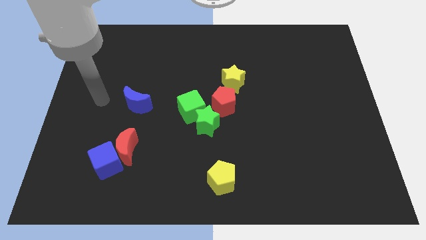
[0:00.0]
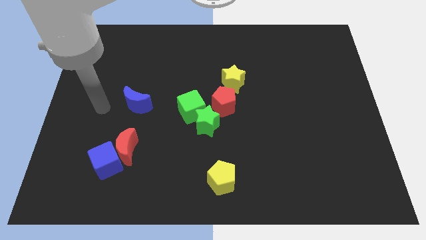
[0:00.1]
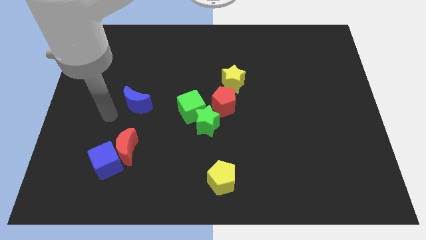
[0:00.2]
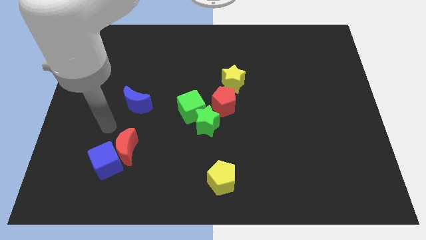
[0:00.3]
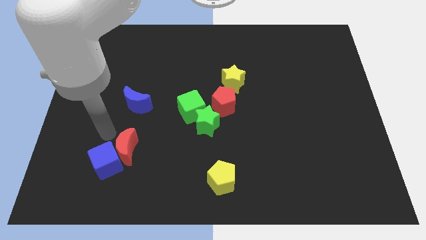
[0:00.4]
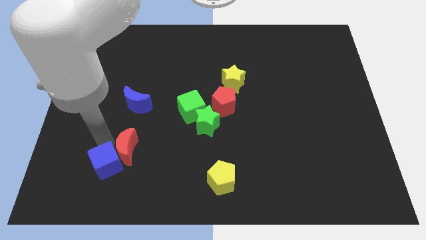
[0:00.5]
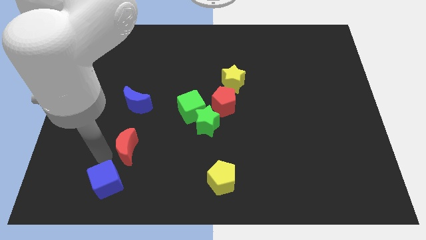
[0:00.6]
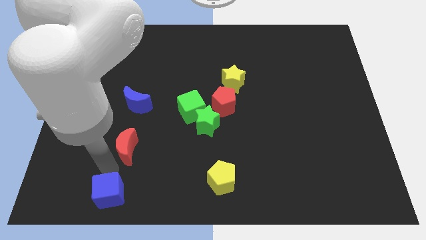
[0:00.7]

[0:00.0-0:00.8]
move the red moon away from the blue cube

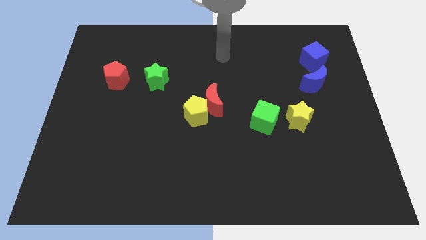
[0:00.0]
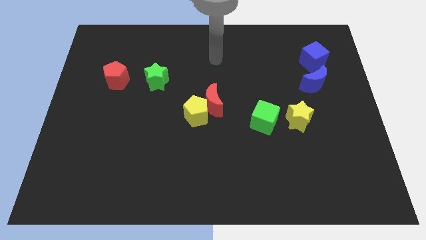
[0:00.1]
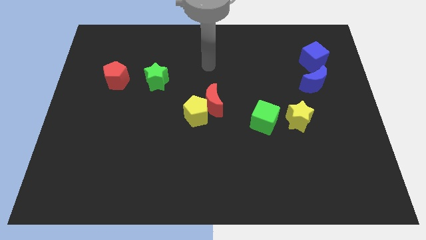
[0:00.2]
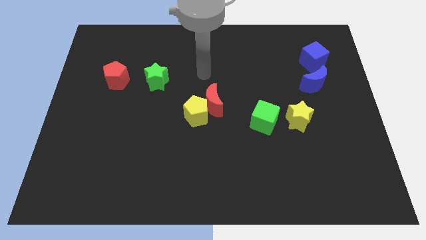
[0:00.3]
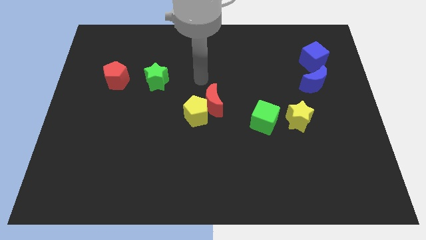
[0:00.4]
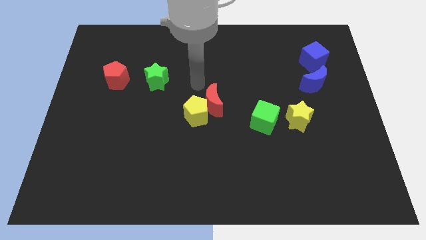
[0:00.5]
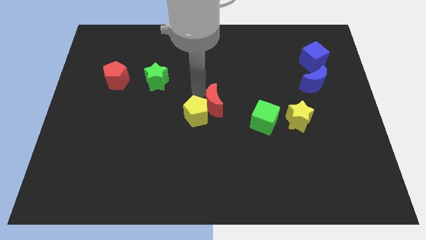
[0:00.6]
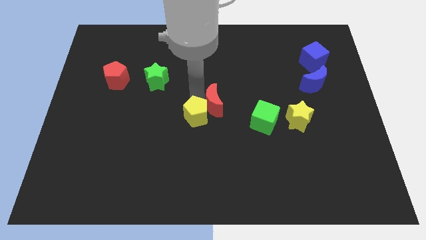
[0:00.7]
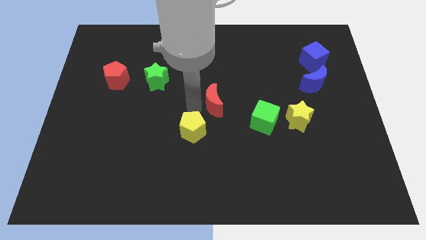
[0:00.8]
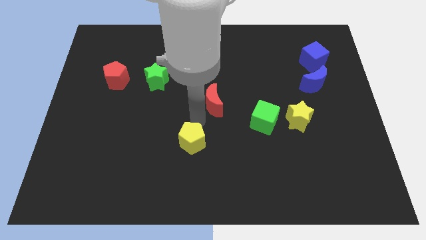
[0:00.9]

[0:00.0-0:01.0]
move the red moon away from the yellow pentagon

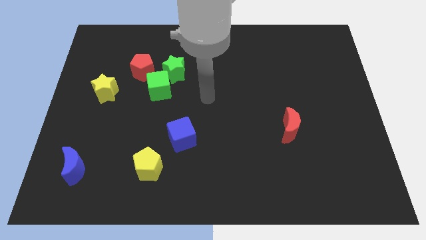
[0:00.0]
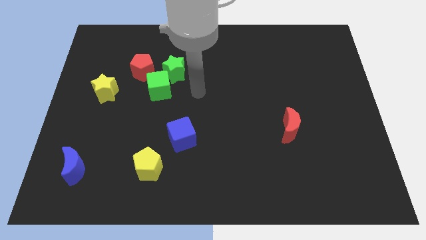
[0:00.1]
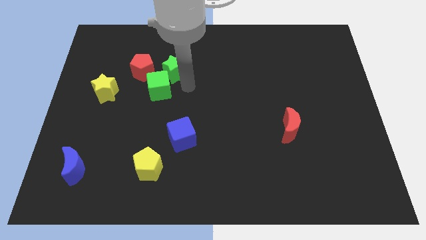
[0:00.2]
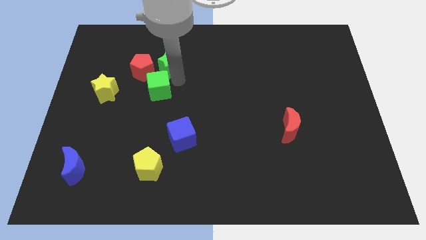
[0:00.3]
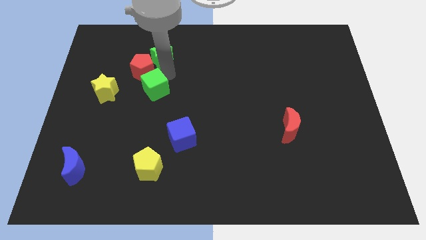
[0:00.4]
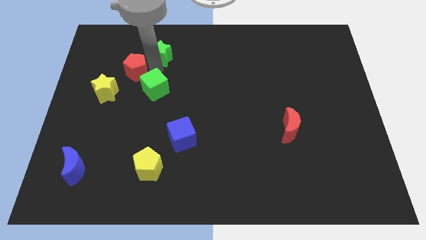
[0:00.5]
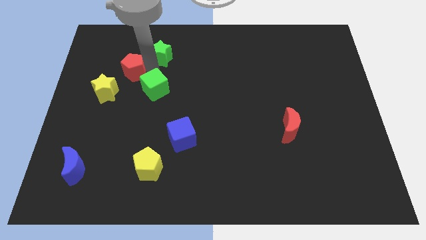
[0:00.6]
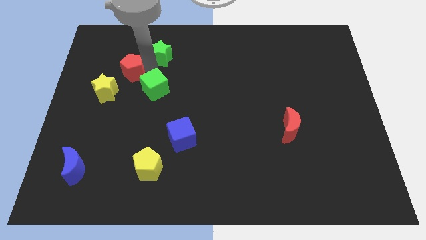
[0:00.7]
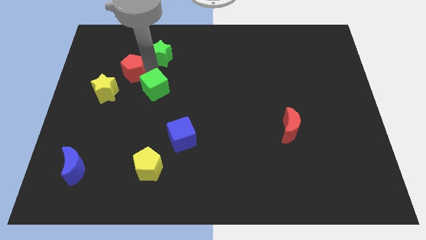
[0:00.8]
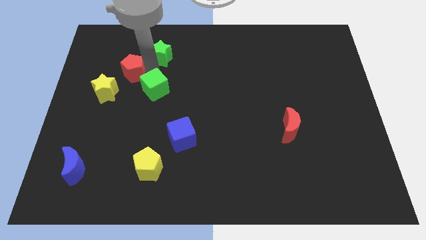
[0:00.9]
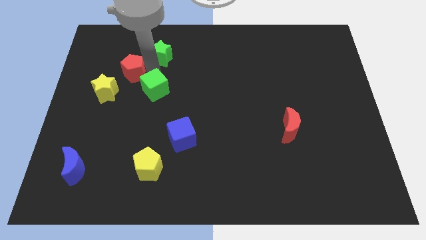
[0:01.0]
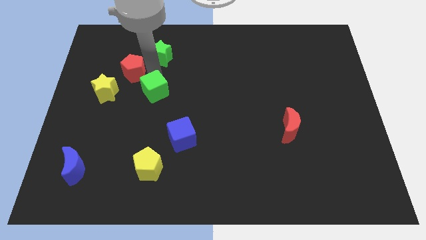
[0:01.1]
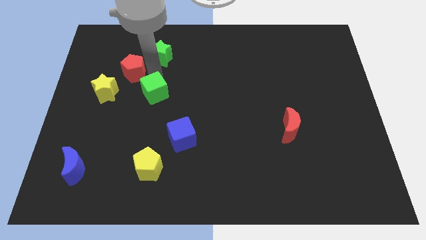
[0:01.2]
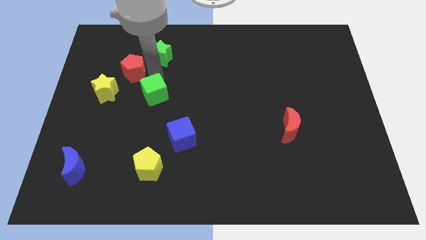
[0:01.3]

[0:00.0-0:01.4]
move the green cube away from the green star and red pentagon

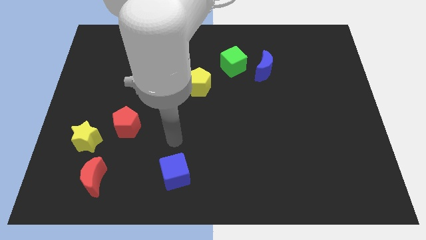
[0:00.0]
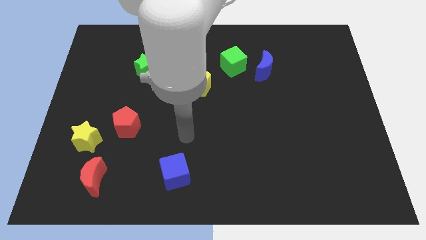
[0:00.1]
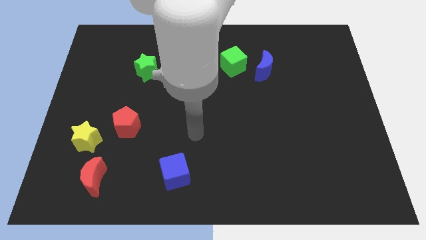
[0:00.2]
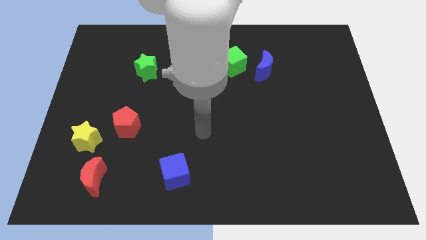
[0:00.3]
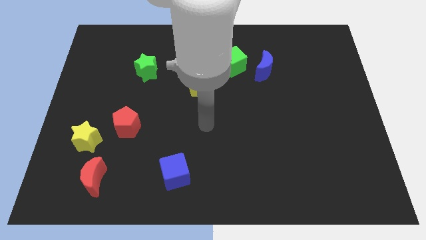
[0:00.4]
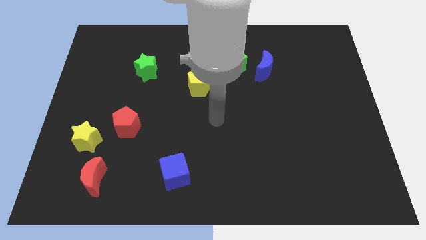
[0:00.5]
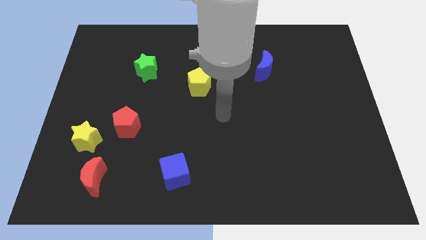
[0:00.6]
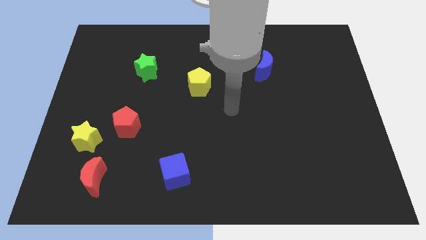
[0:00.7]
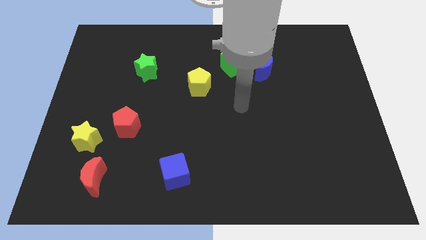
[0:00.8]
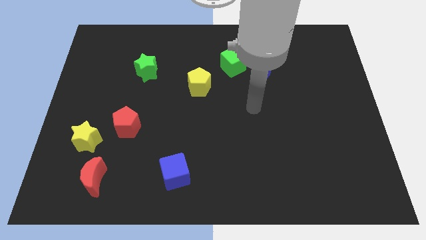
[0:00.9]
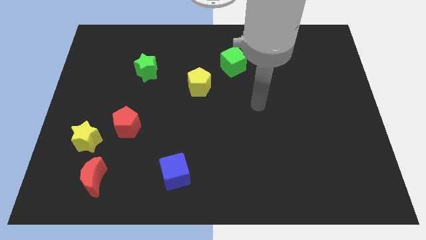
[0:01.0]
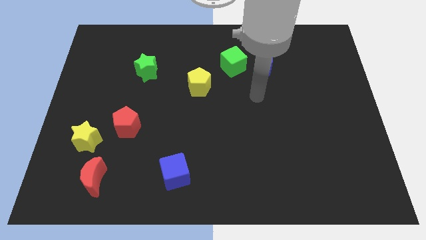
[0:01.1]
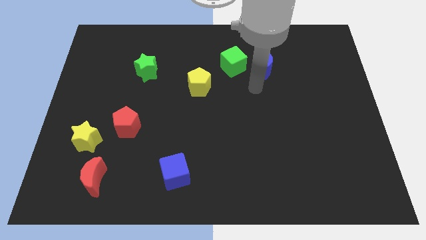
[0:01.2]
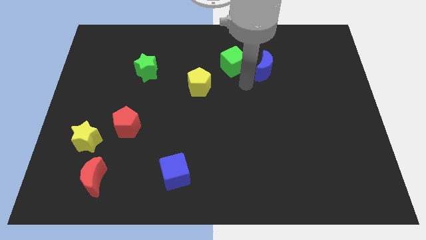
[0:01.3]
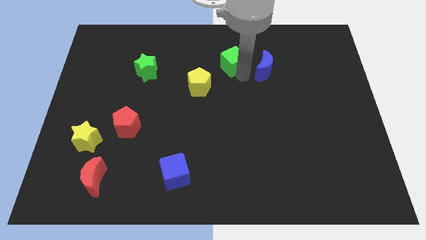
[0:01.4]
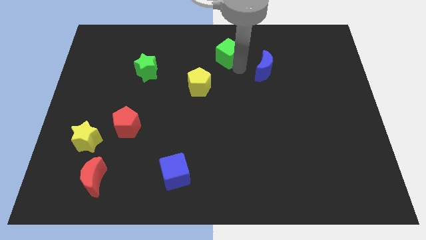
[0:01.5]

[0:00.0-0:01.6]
pull the blue moon apart from the green cube

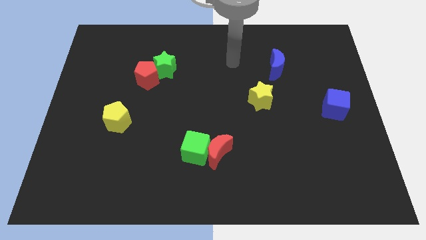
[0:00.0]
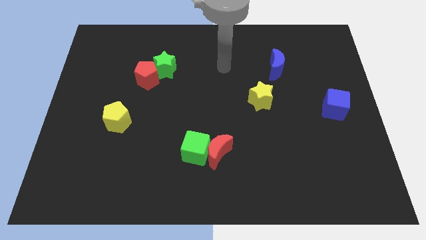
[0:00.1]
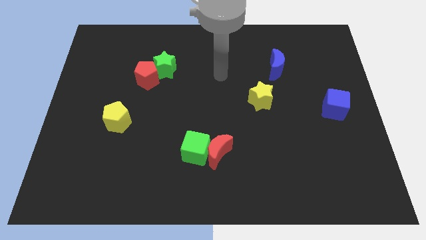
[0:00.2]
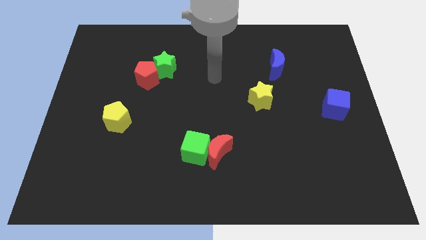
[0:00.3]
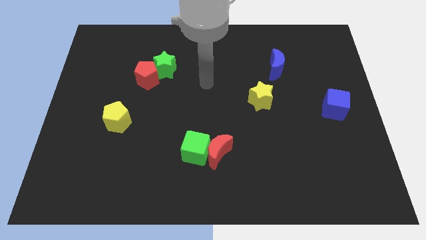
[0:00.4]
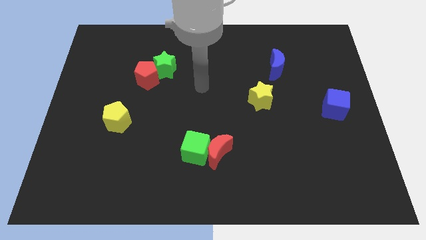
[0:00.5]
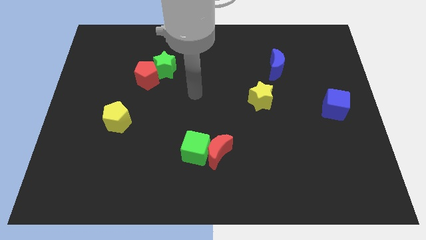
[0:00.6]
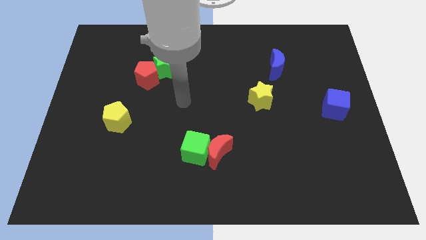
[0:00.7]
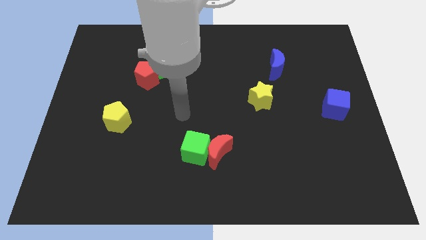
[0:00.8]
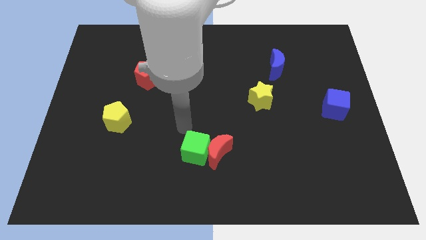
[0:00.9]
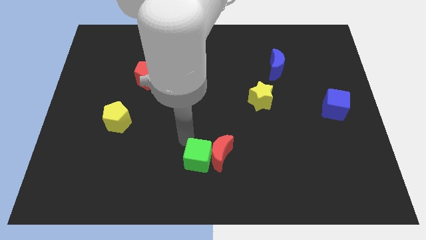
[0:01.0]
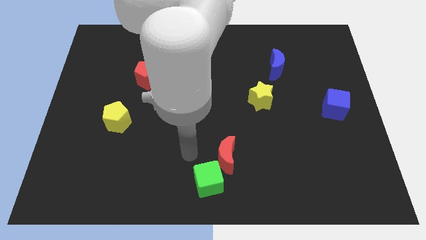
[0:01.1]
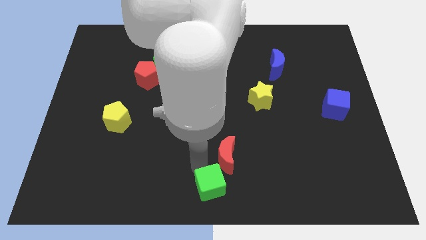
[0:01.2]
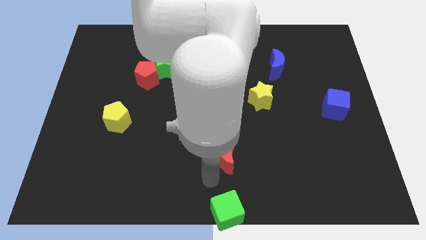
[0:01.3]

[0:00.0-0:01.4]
pull the red moon apart from the green cube

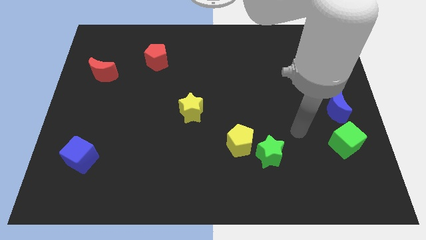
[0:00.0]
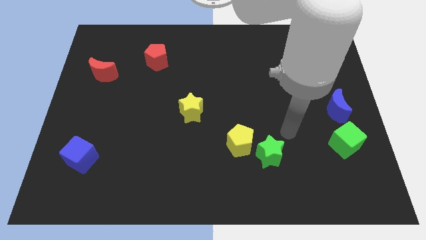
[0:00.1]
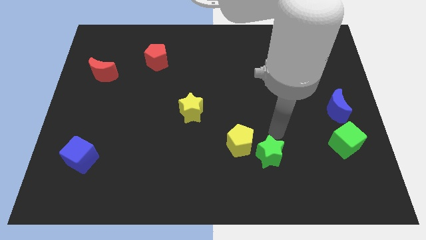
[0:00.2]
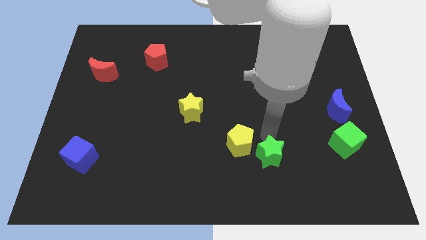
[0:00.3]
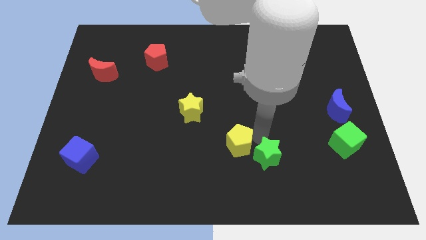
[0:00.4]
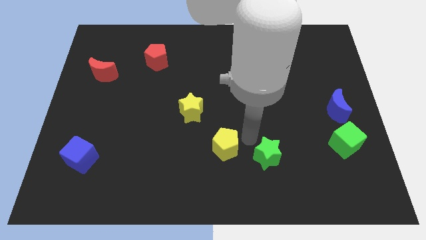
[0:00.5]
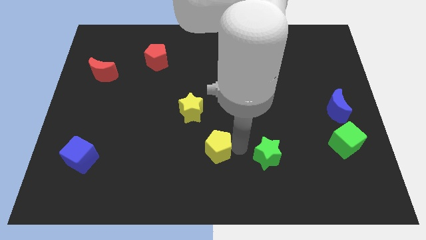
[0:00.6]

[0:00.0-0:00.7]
separate the green star from the yellow pentagon

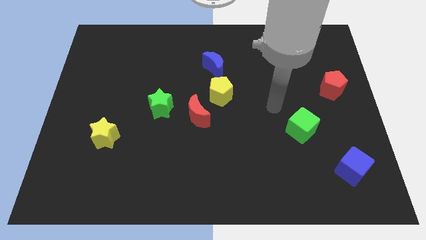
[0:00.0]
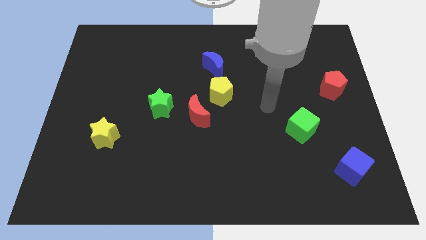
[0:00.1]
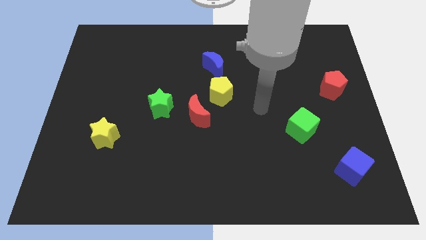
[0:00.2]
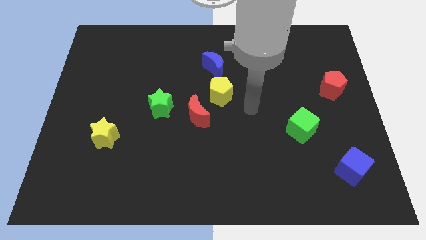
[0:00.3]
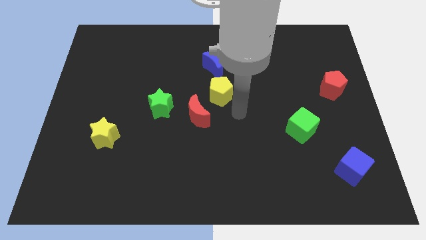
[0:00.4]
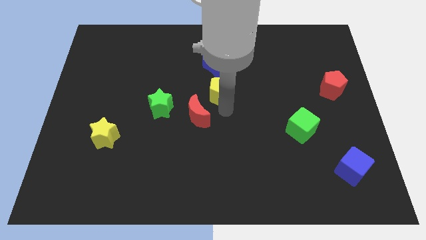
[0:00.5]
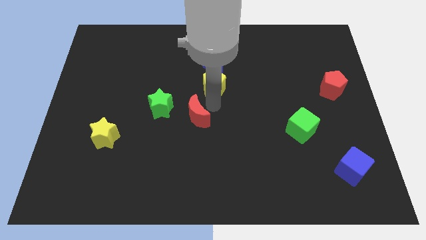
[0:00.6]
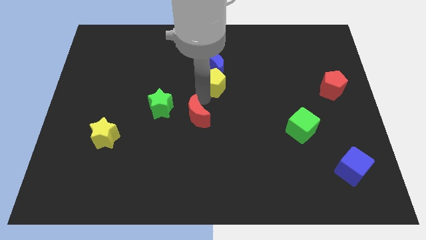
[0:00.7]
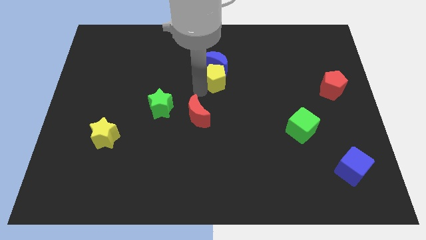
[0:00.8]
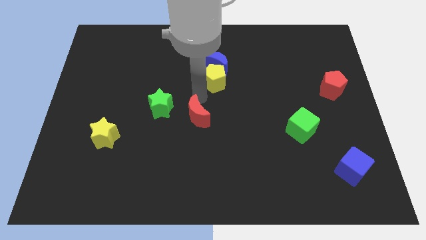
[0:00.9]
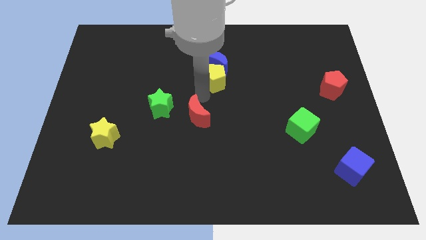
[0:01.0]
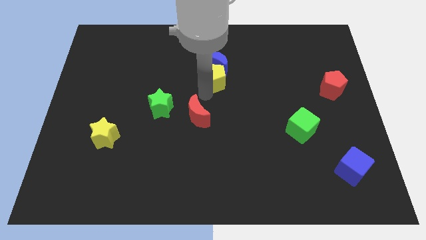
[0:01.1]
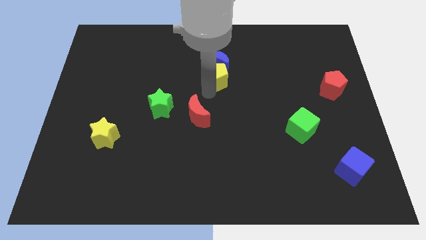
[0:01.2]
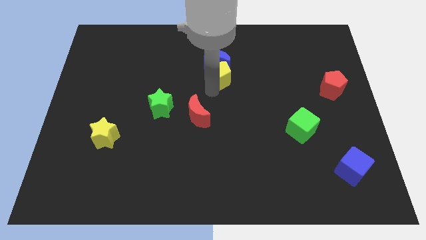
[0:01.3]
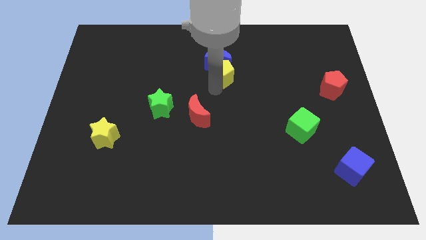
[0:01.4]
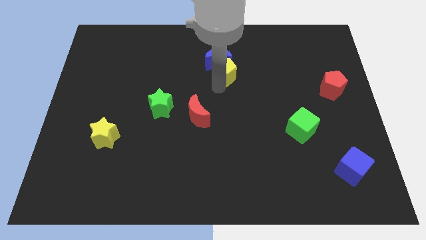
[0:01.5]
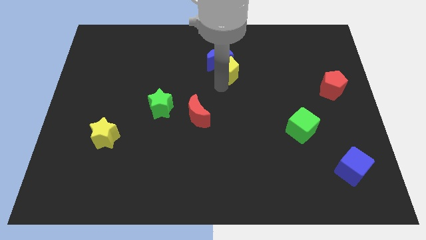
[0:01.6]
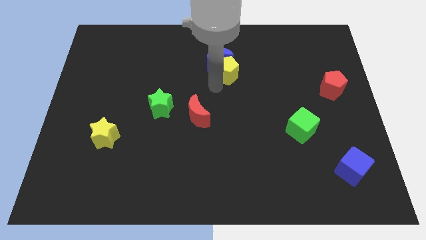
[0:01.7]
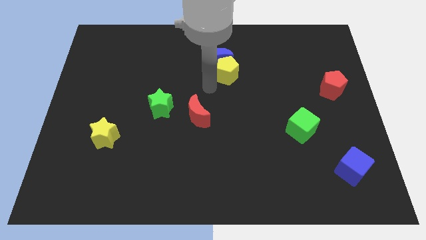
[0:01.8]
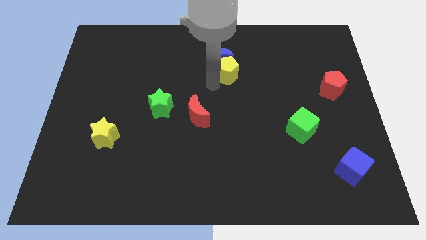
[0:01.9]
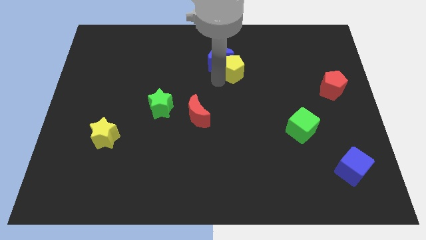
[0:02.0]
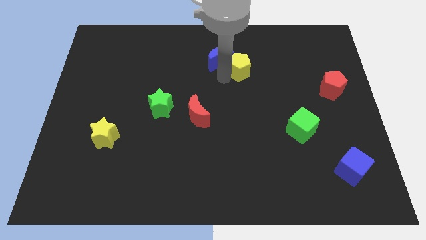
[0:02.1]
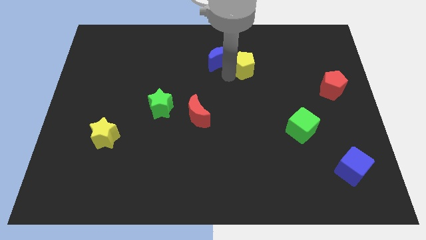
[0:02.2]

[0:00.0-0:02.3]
pull the yellow pentagon apart from the red moon and blue moon
